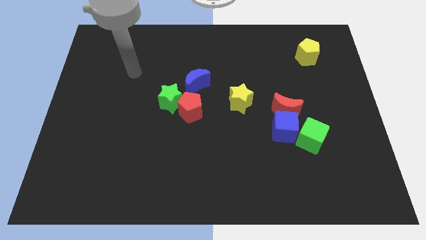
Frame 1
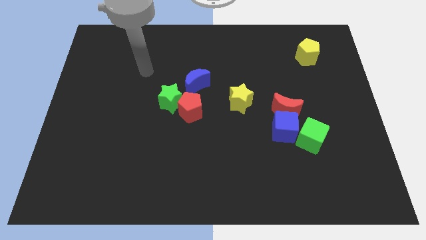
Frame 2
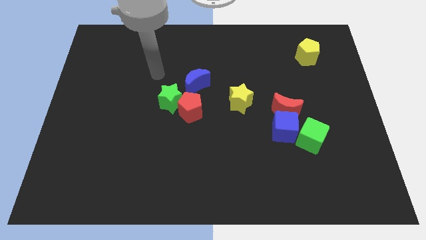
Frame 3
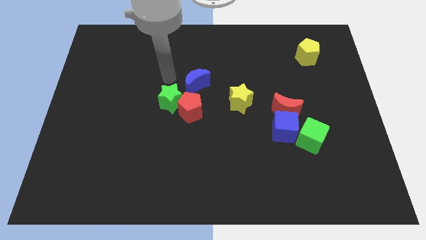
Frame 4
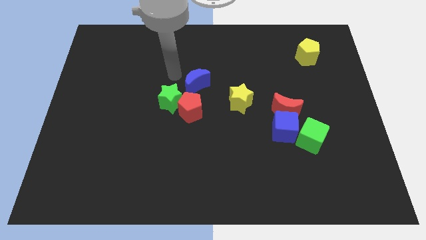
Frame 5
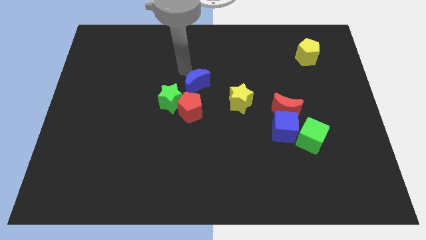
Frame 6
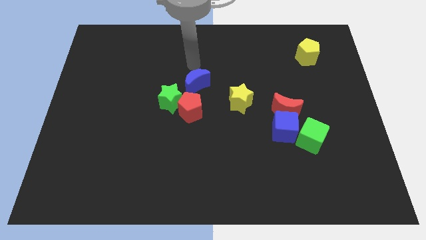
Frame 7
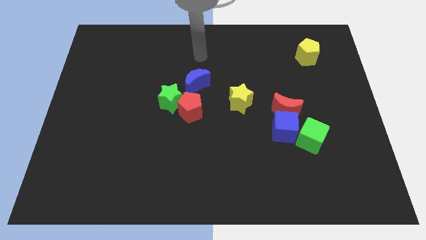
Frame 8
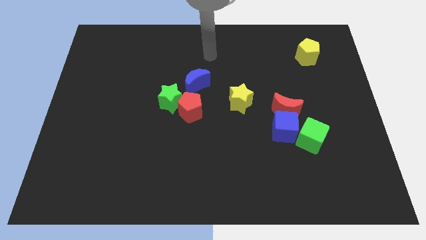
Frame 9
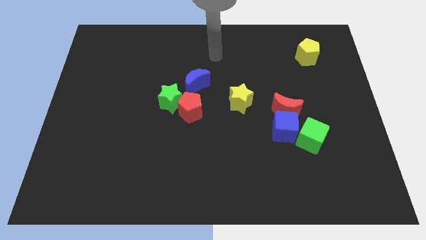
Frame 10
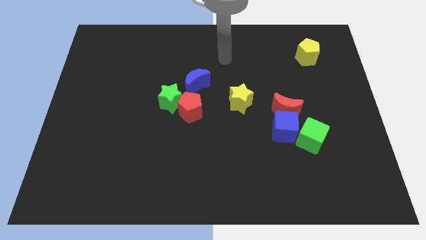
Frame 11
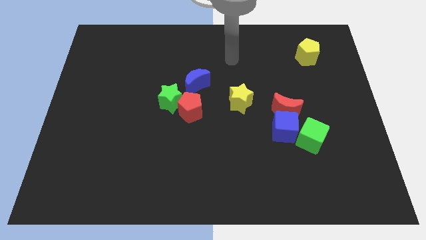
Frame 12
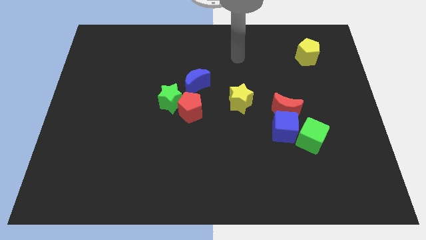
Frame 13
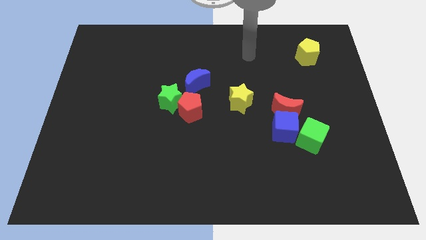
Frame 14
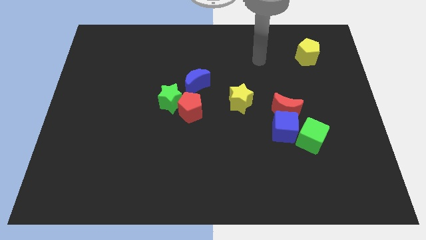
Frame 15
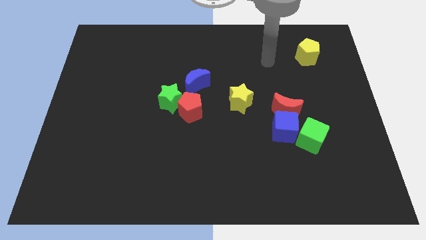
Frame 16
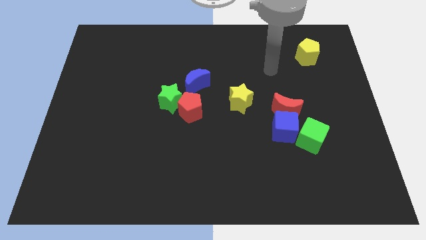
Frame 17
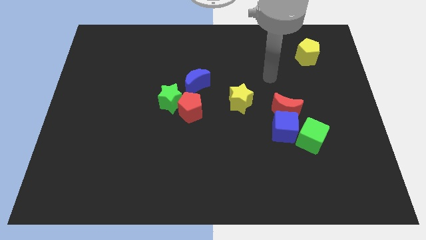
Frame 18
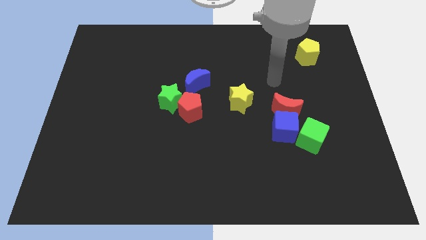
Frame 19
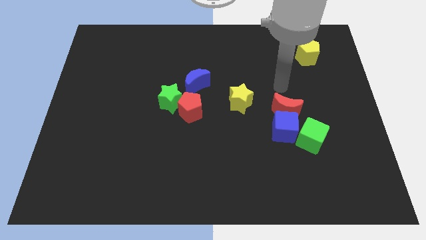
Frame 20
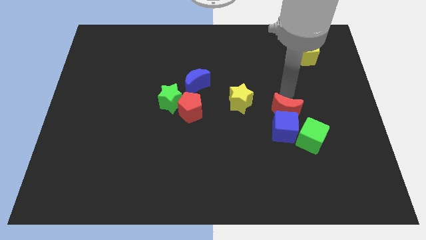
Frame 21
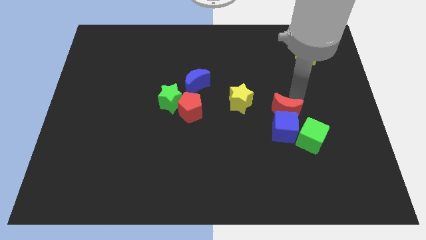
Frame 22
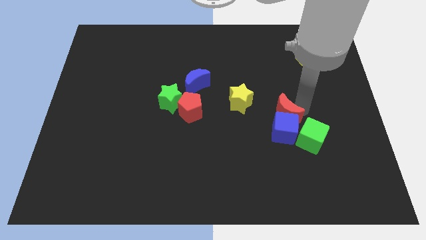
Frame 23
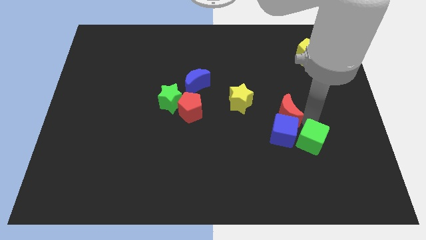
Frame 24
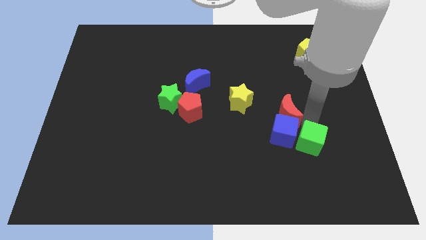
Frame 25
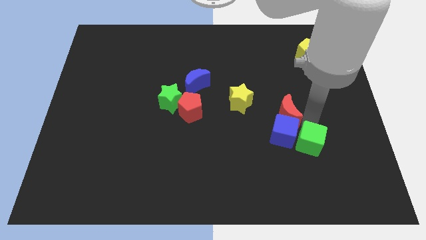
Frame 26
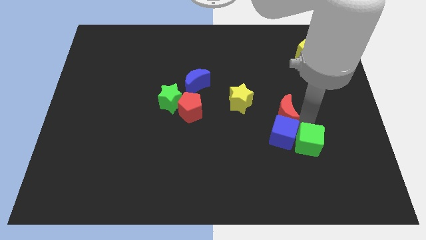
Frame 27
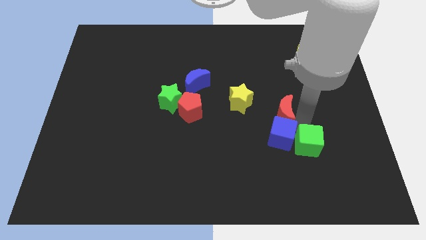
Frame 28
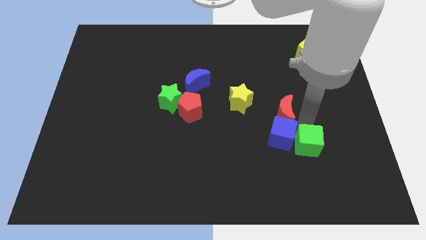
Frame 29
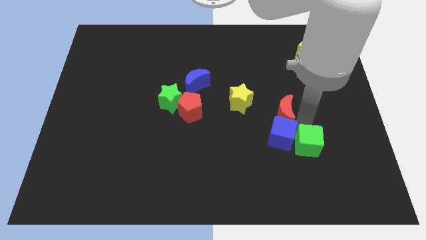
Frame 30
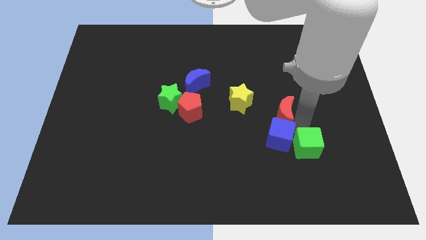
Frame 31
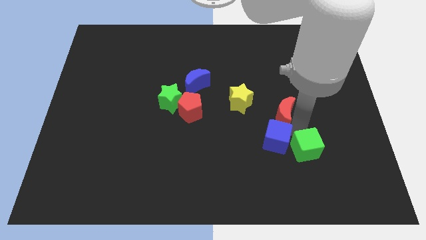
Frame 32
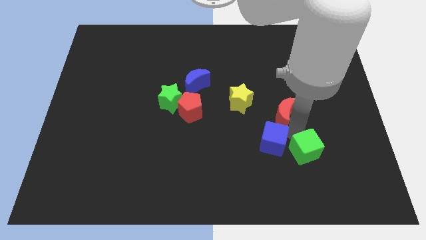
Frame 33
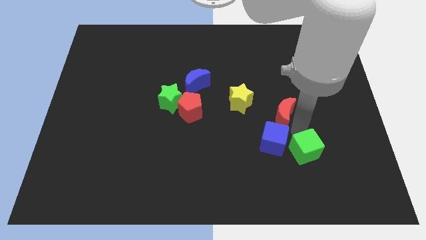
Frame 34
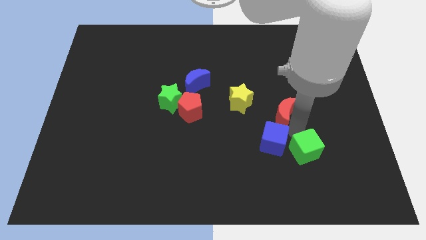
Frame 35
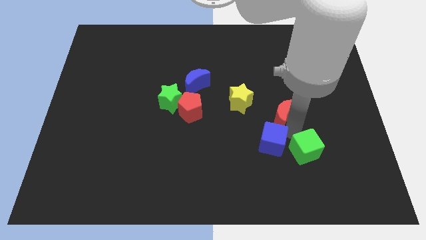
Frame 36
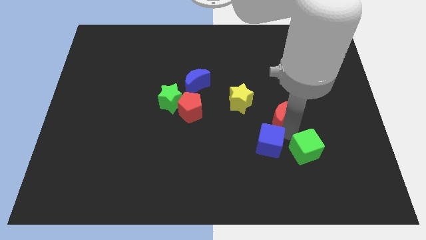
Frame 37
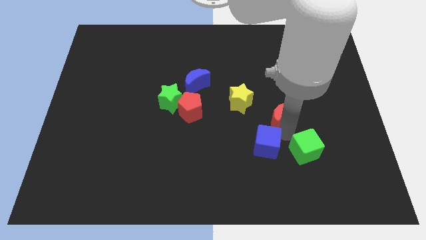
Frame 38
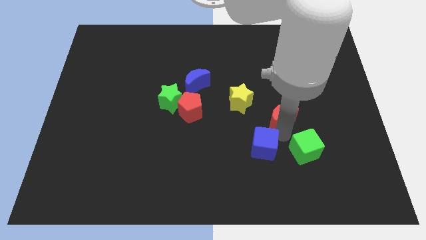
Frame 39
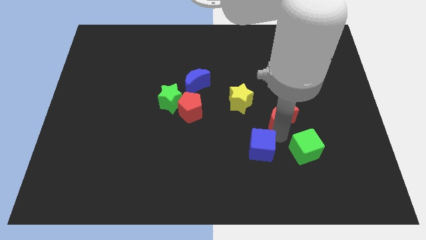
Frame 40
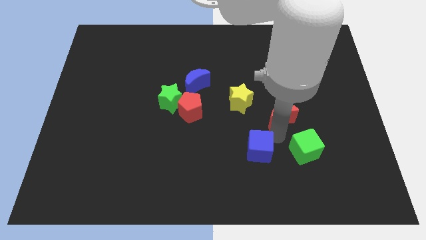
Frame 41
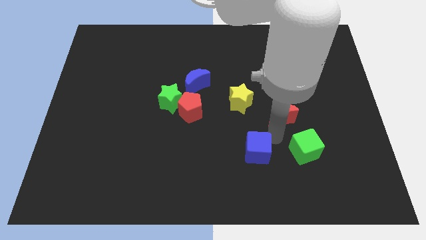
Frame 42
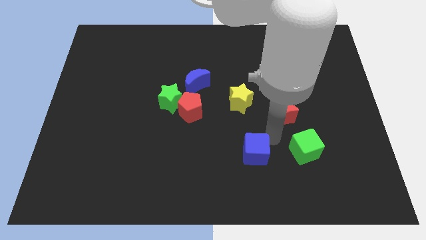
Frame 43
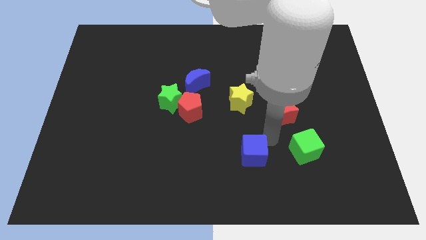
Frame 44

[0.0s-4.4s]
separate the blue cube from the red moon and green cube

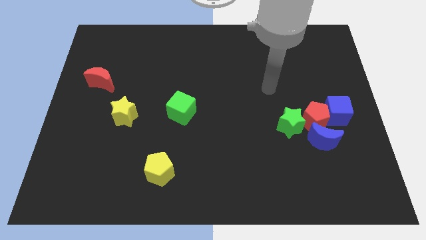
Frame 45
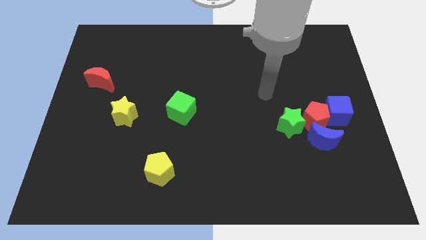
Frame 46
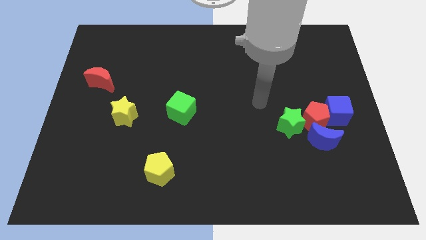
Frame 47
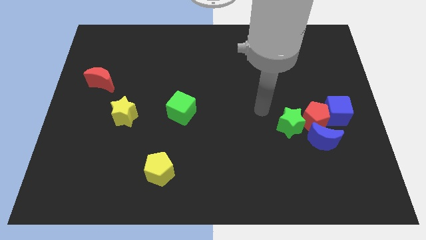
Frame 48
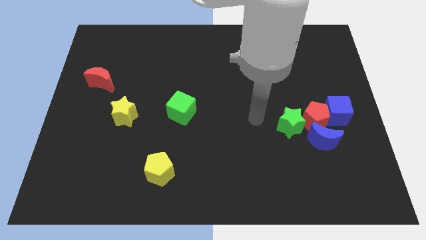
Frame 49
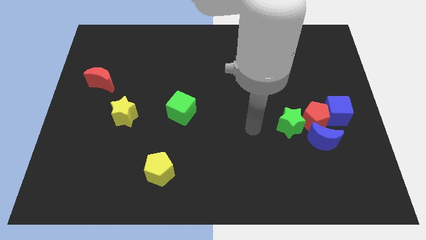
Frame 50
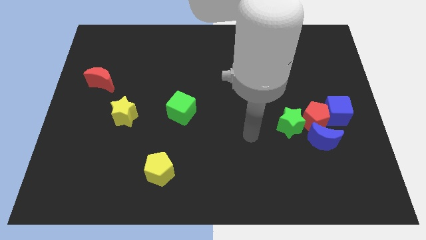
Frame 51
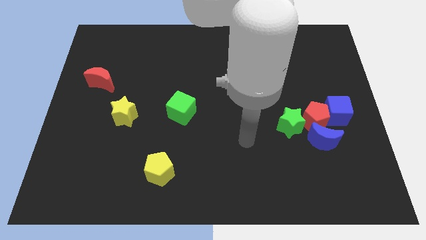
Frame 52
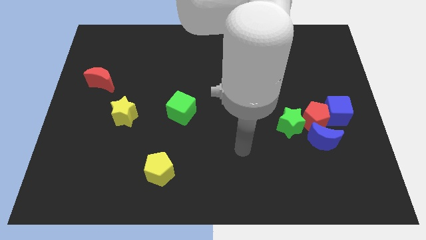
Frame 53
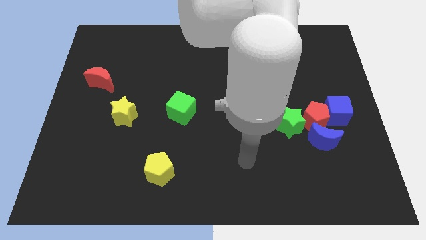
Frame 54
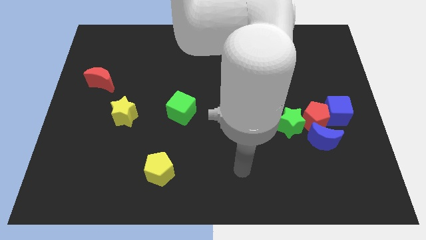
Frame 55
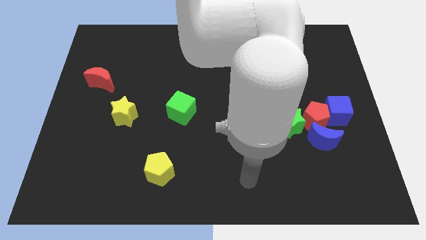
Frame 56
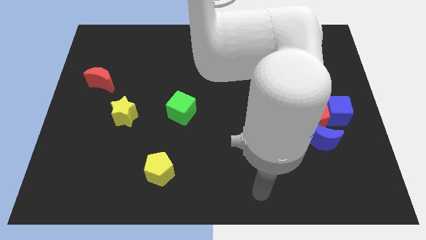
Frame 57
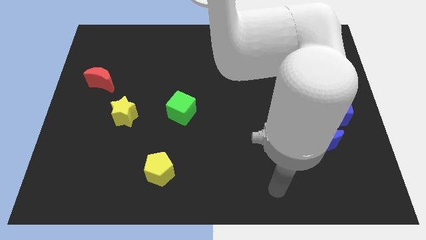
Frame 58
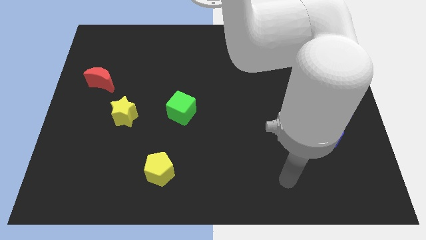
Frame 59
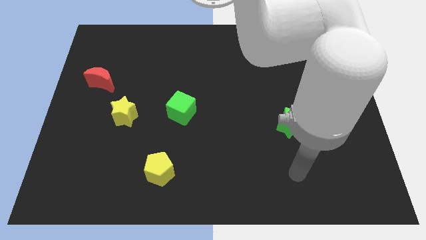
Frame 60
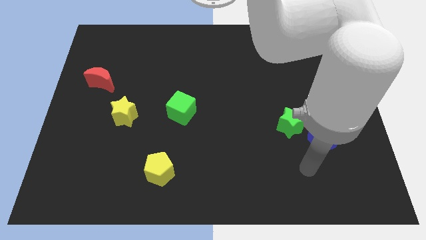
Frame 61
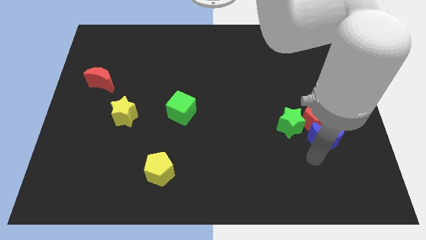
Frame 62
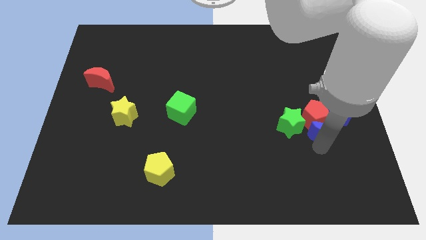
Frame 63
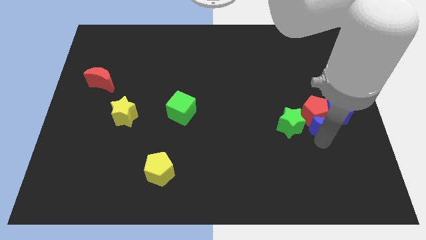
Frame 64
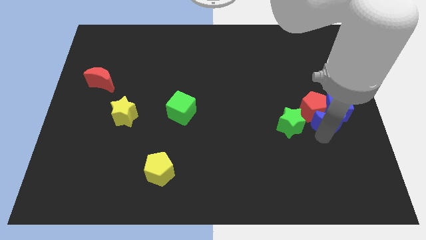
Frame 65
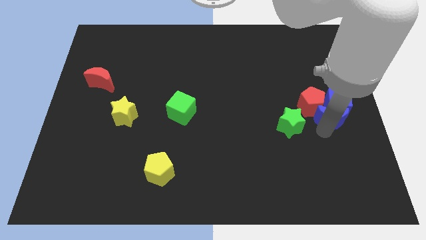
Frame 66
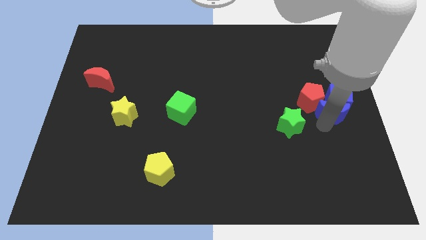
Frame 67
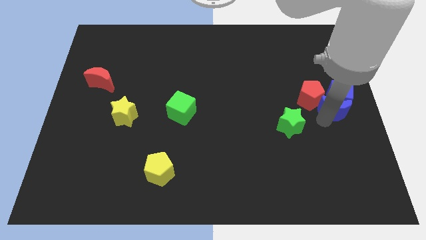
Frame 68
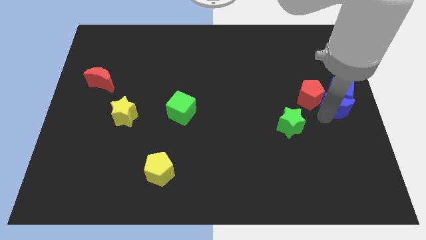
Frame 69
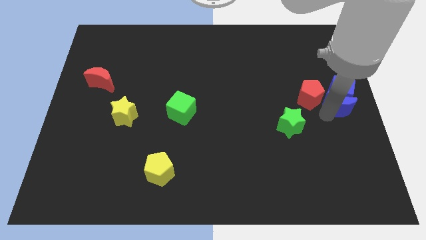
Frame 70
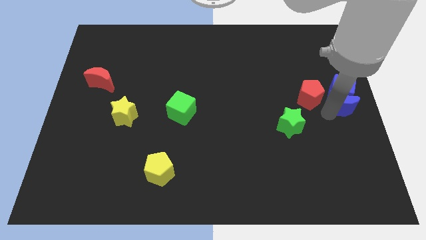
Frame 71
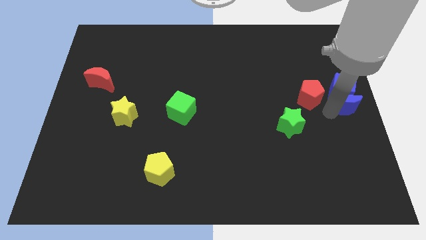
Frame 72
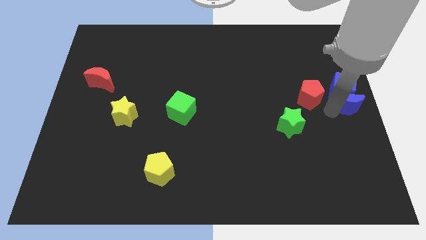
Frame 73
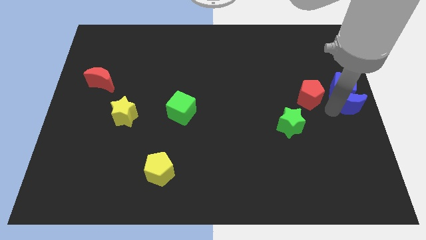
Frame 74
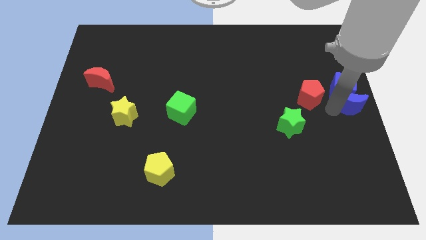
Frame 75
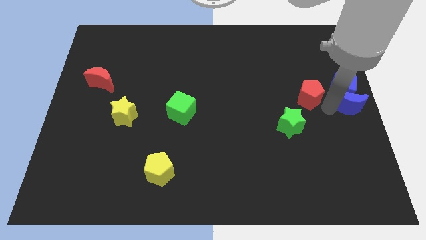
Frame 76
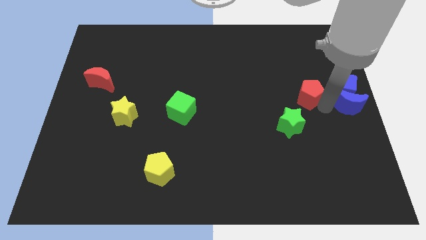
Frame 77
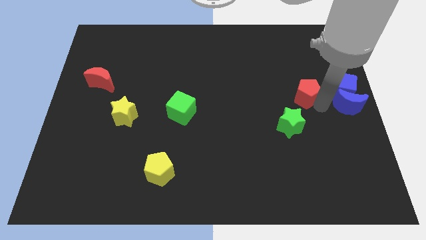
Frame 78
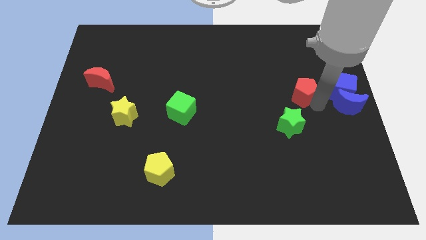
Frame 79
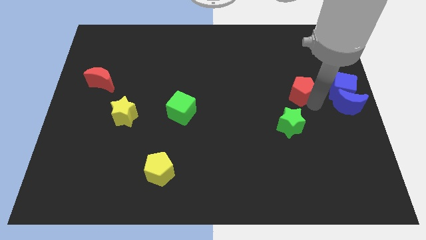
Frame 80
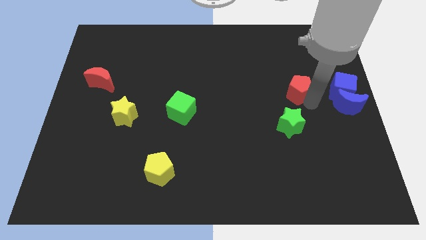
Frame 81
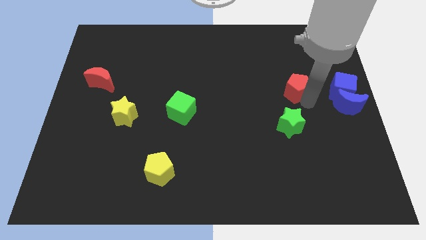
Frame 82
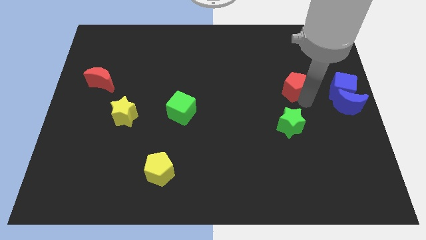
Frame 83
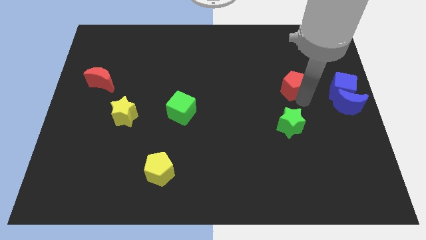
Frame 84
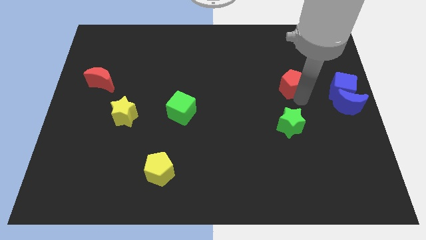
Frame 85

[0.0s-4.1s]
move the red pentagon away from the blue cube, blue moon, and green star

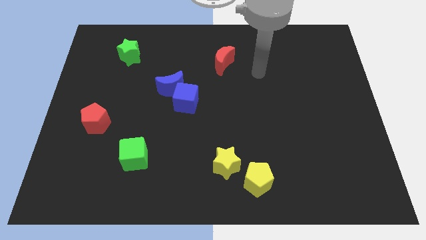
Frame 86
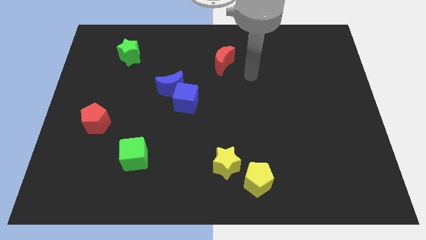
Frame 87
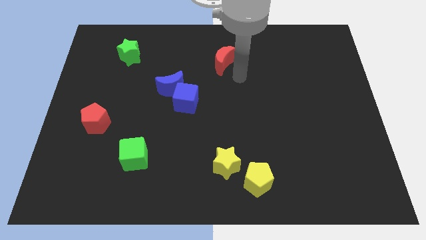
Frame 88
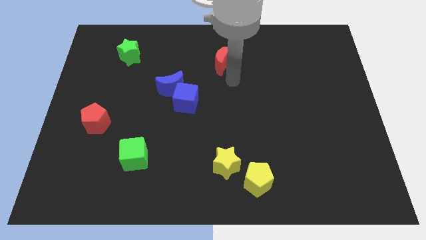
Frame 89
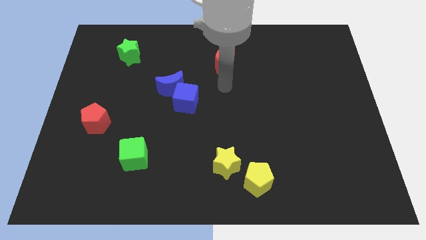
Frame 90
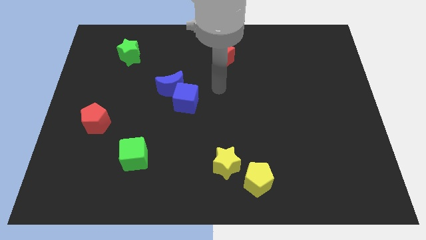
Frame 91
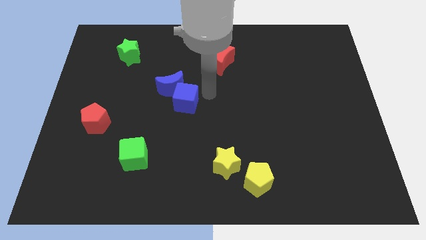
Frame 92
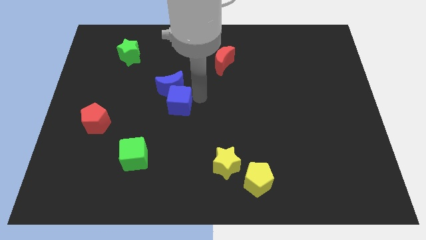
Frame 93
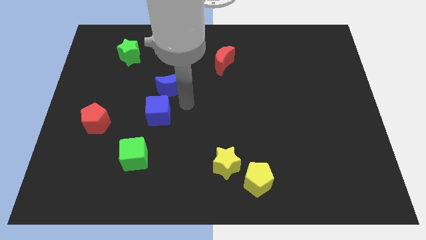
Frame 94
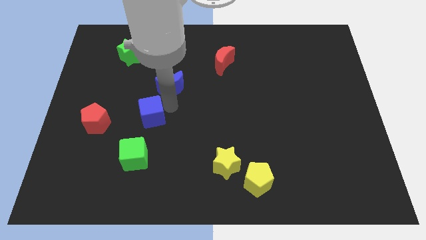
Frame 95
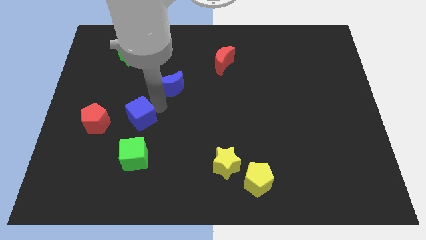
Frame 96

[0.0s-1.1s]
separate the blue moon from the blue cube
